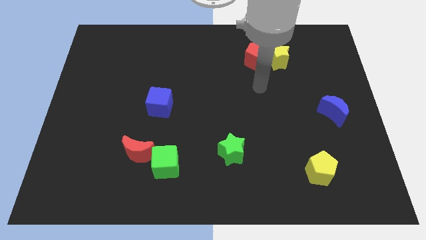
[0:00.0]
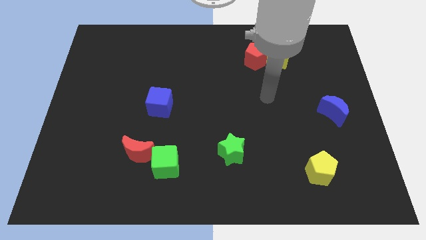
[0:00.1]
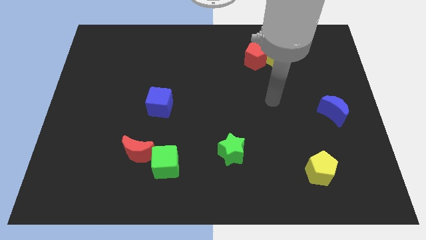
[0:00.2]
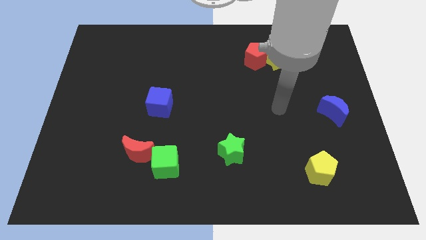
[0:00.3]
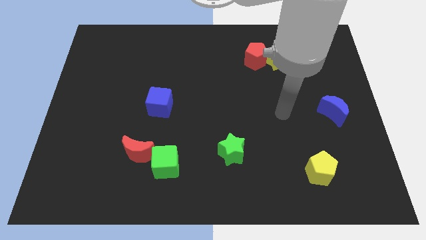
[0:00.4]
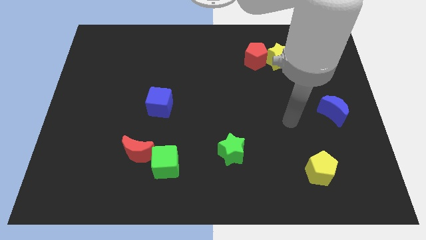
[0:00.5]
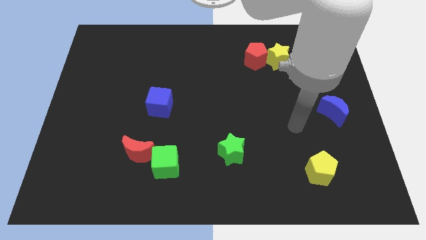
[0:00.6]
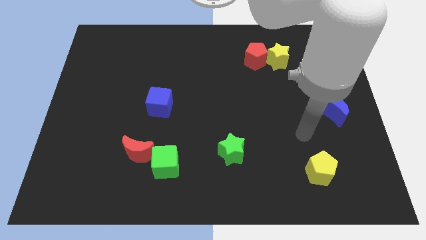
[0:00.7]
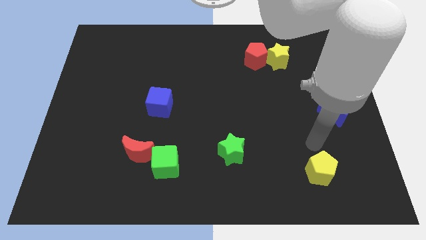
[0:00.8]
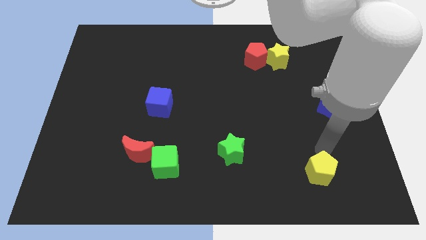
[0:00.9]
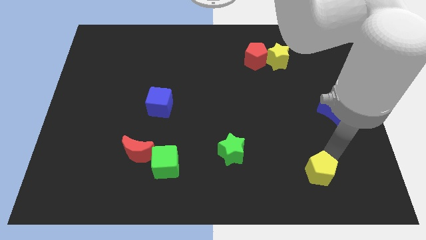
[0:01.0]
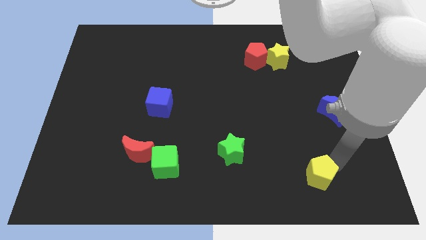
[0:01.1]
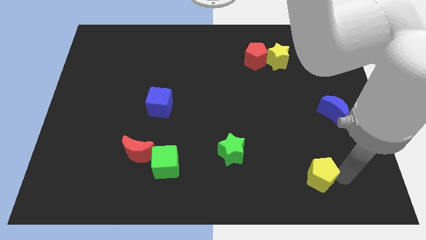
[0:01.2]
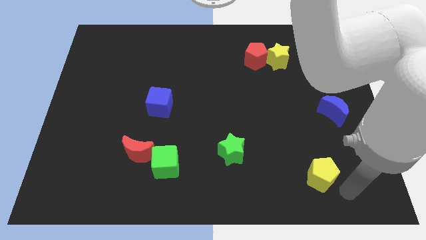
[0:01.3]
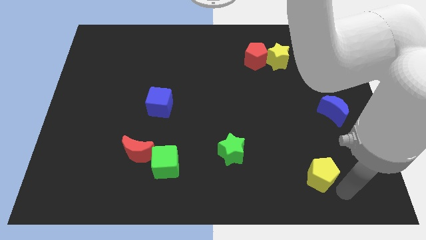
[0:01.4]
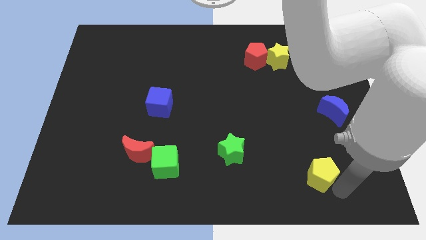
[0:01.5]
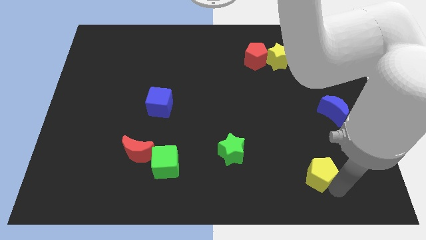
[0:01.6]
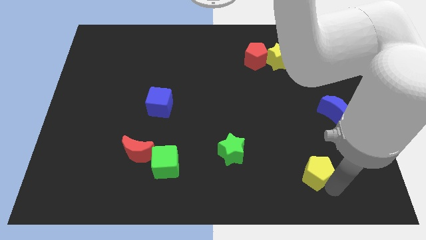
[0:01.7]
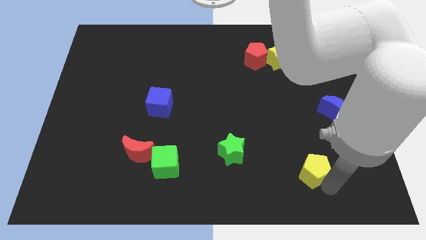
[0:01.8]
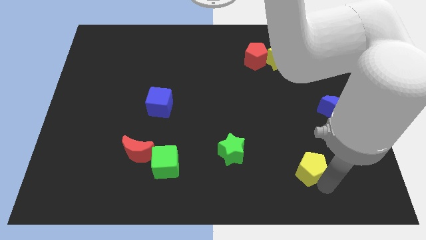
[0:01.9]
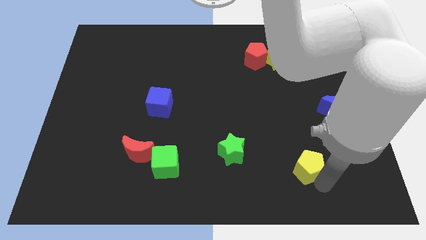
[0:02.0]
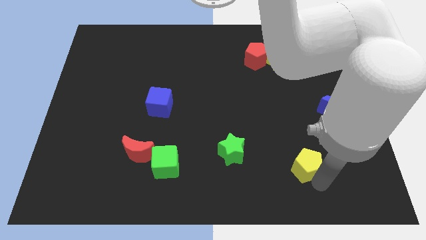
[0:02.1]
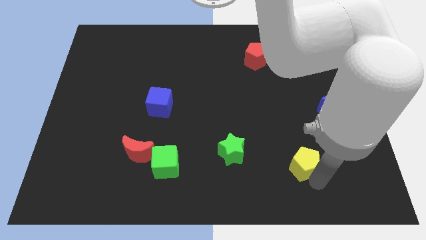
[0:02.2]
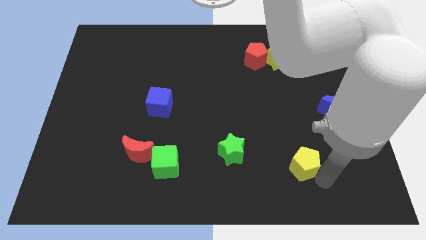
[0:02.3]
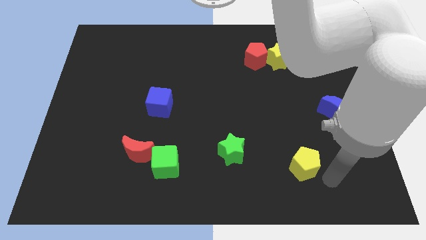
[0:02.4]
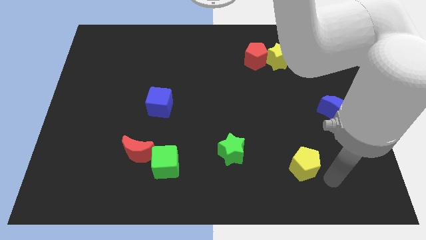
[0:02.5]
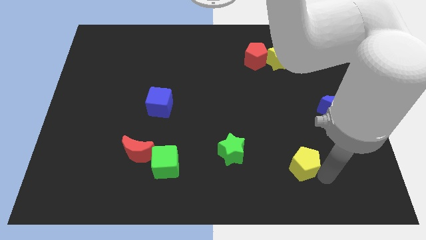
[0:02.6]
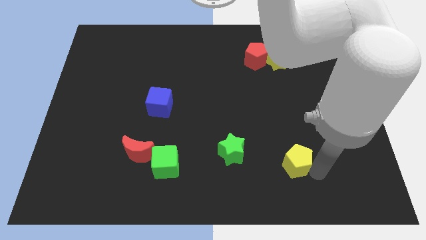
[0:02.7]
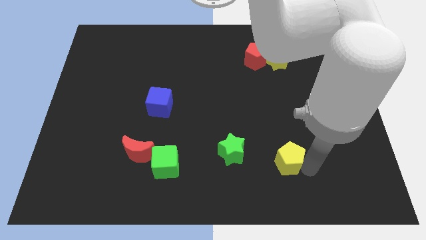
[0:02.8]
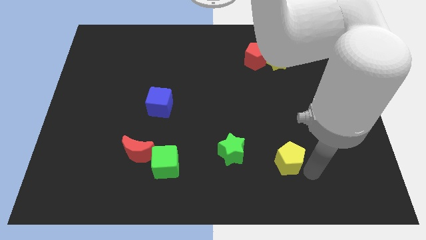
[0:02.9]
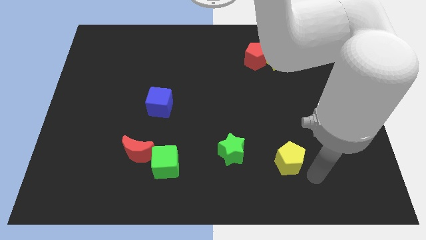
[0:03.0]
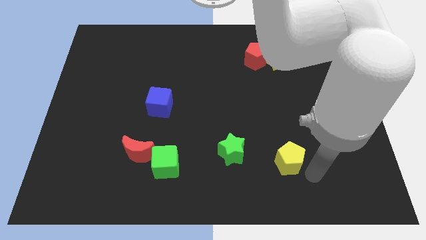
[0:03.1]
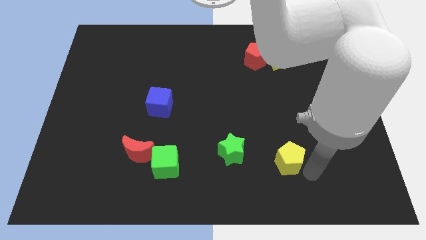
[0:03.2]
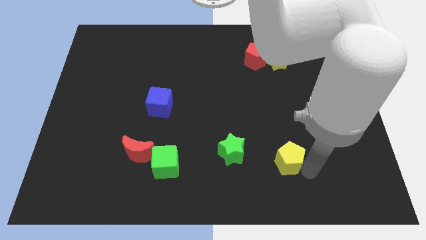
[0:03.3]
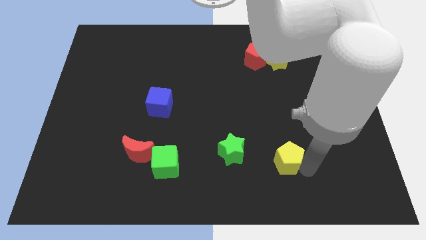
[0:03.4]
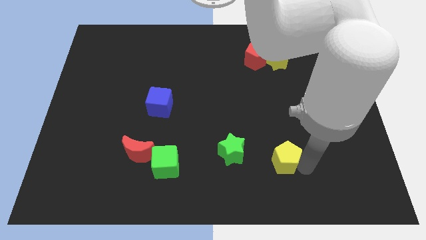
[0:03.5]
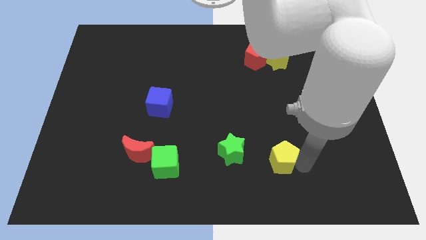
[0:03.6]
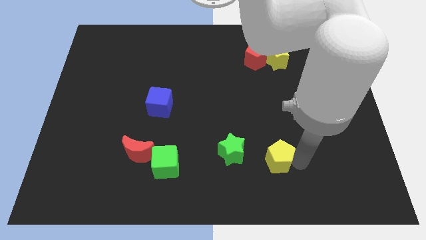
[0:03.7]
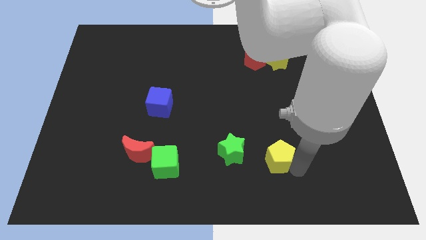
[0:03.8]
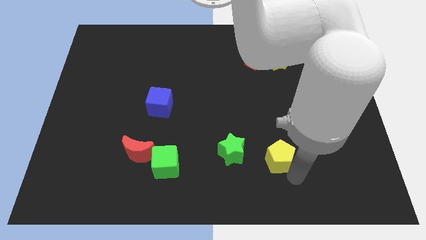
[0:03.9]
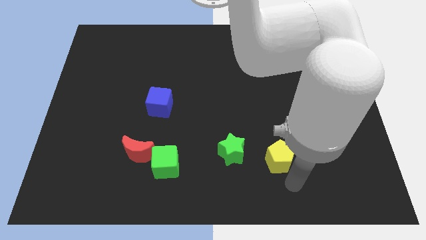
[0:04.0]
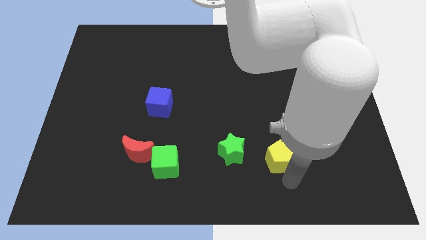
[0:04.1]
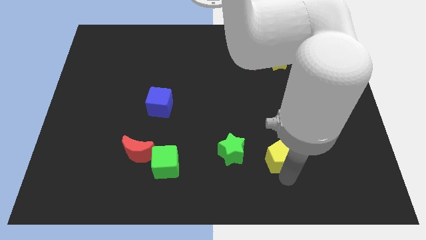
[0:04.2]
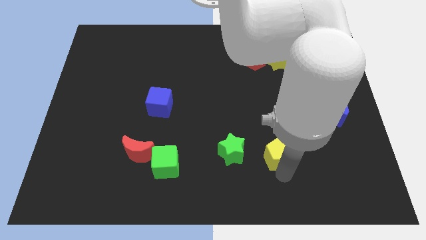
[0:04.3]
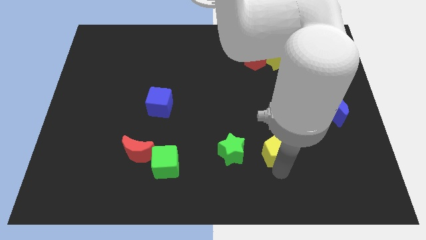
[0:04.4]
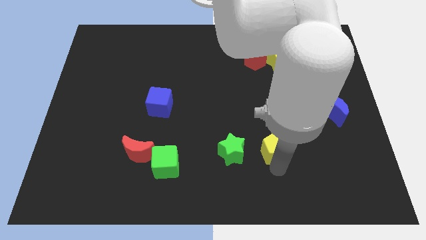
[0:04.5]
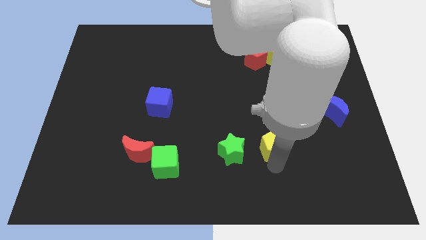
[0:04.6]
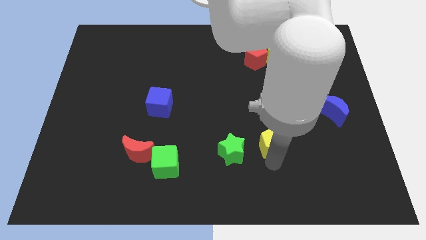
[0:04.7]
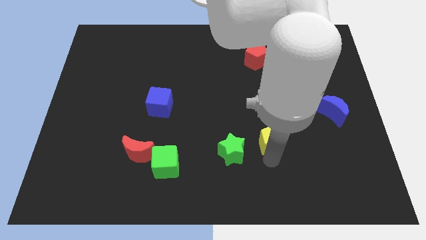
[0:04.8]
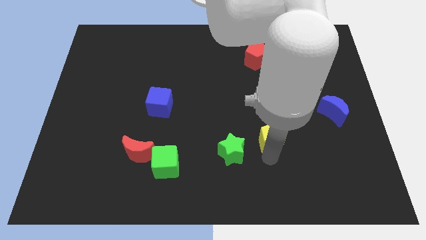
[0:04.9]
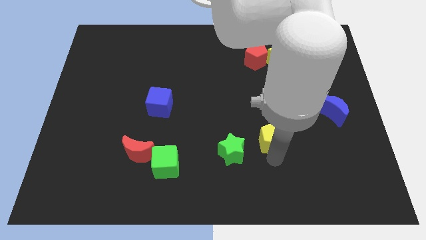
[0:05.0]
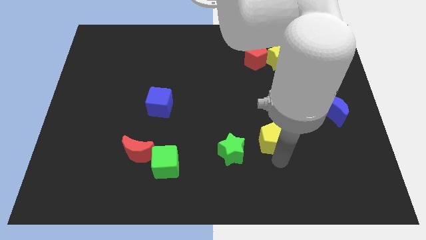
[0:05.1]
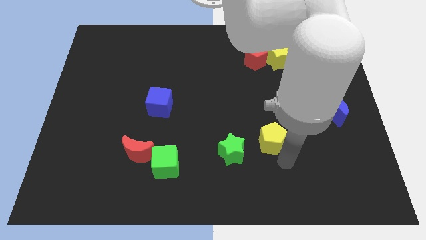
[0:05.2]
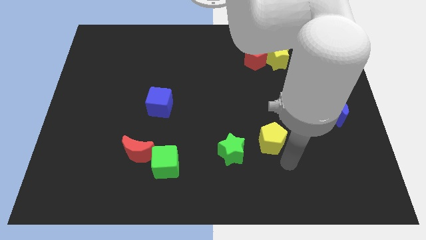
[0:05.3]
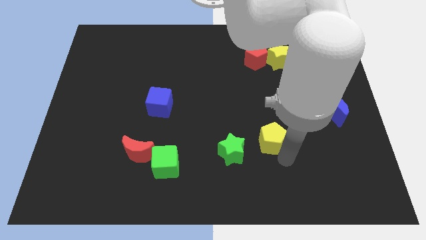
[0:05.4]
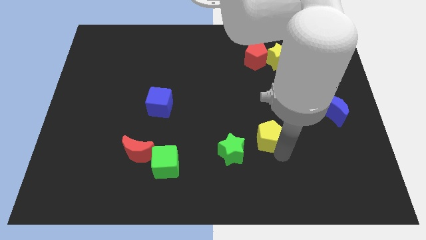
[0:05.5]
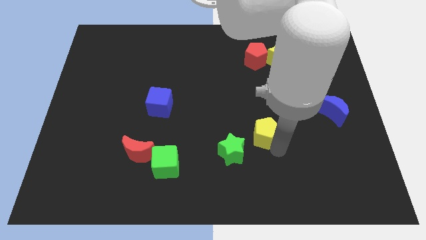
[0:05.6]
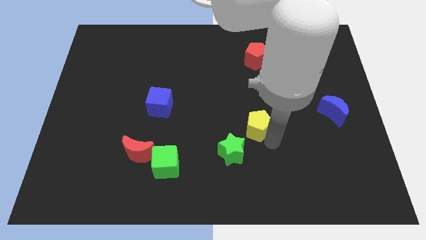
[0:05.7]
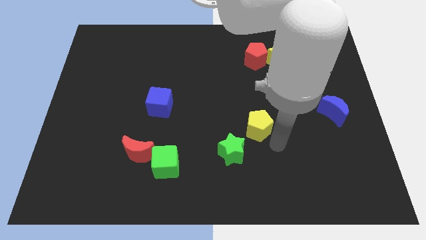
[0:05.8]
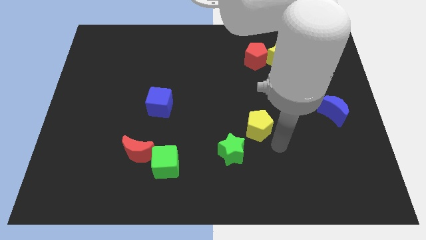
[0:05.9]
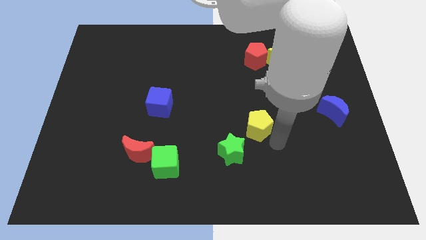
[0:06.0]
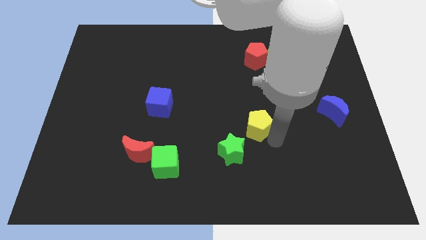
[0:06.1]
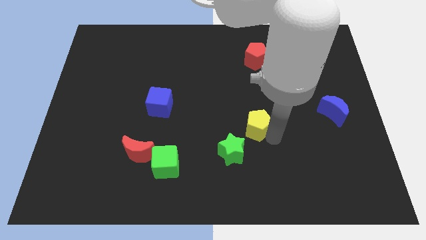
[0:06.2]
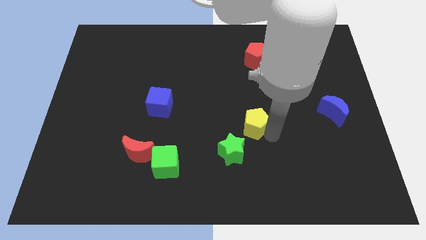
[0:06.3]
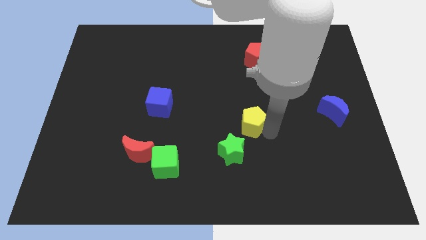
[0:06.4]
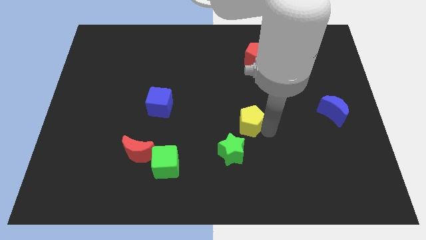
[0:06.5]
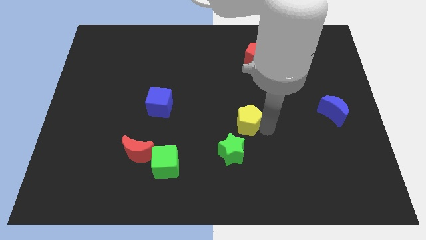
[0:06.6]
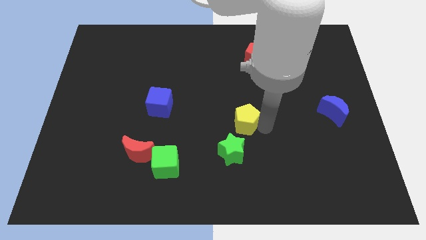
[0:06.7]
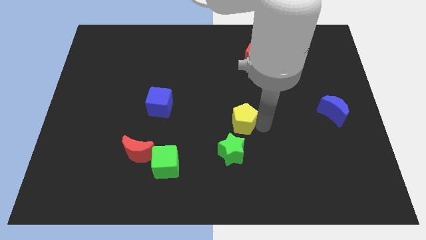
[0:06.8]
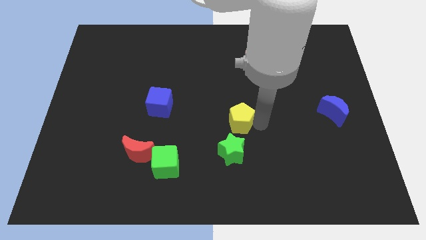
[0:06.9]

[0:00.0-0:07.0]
move the yellow pentagon up and to the left diagonally

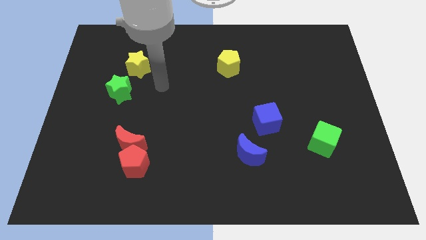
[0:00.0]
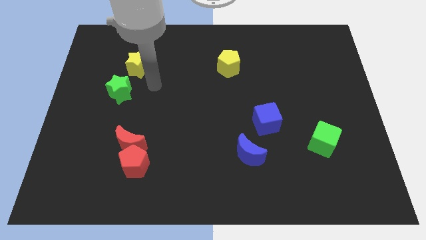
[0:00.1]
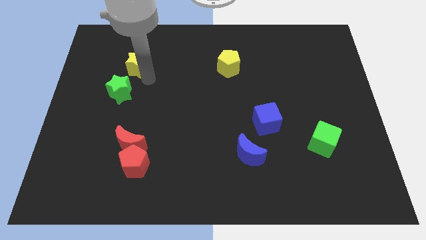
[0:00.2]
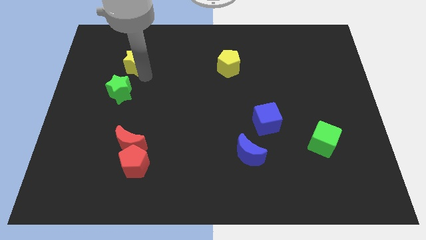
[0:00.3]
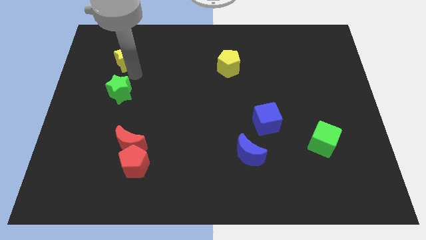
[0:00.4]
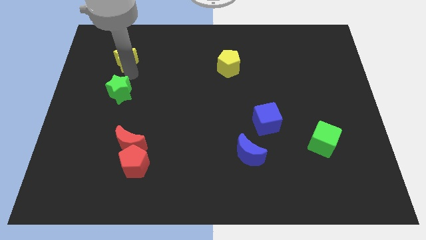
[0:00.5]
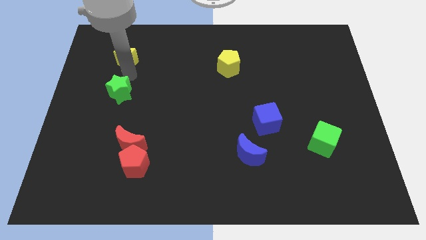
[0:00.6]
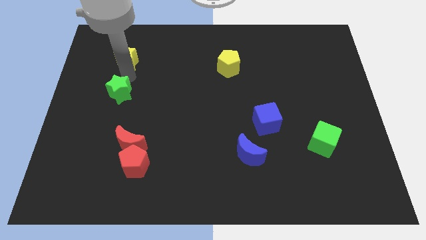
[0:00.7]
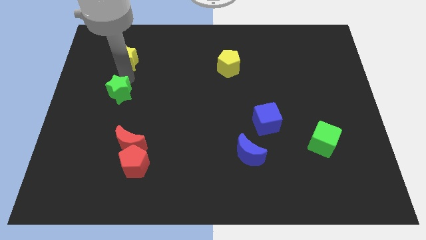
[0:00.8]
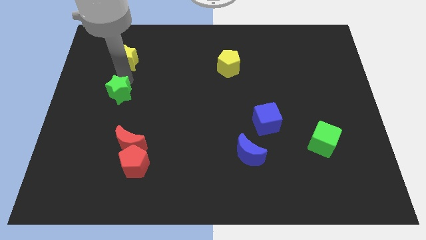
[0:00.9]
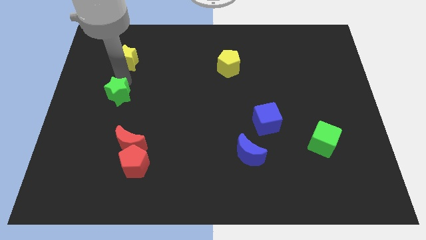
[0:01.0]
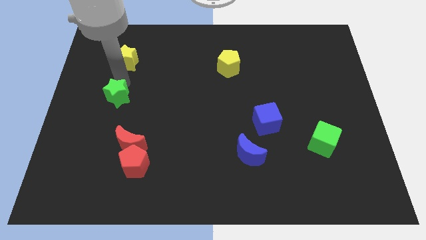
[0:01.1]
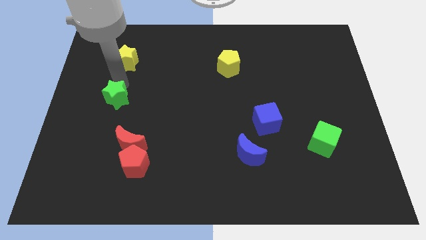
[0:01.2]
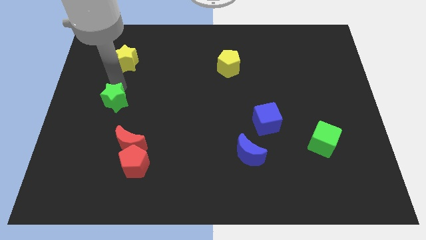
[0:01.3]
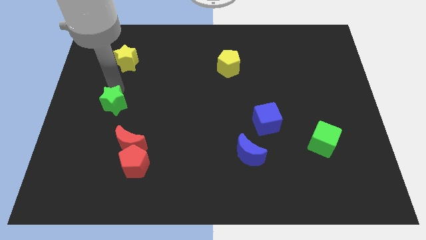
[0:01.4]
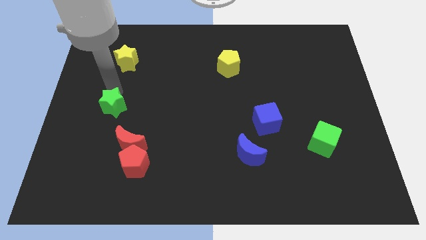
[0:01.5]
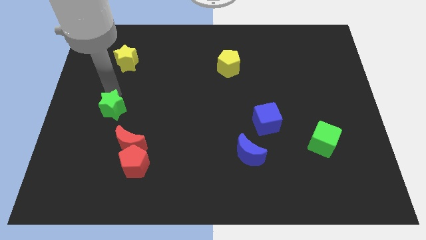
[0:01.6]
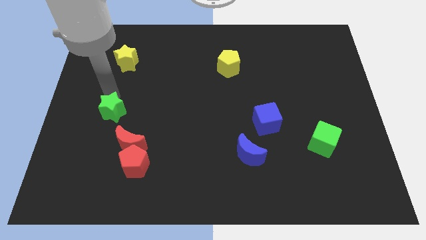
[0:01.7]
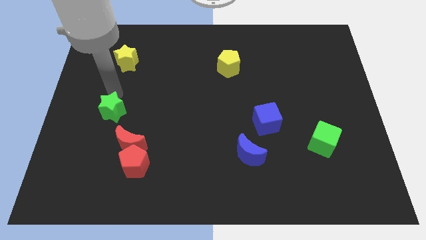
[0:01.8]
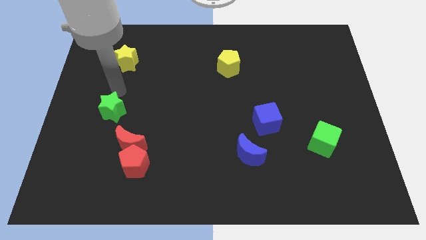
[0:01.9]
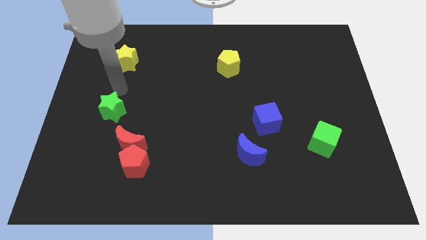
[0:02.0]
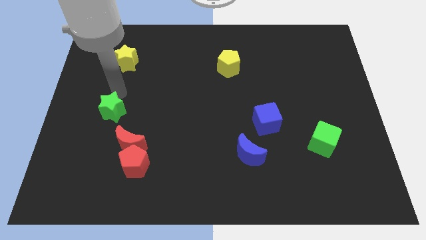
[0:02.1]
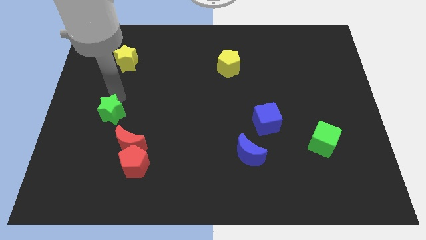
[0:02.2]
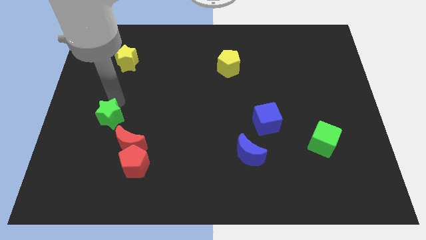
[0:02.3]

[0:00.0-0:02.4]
slightly move the green star downwards
